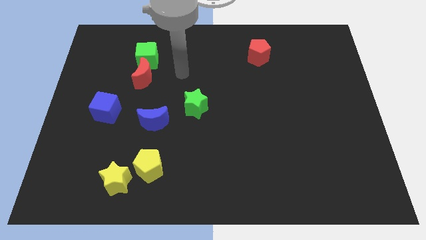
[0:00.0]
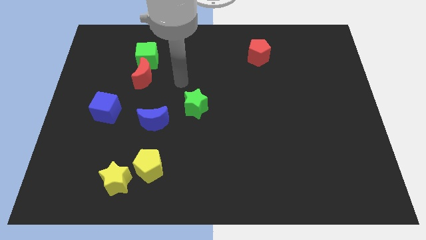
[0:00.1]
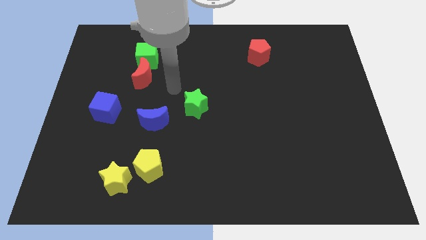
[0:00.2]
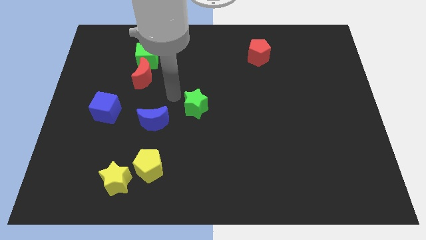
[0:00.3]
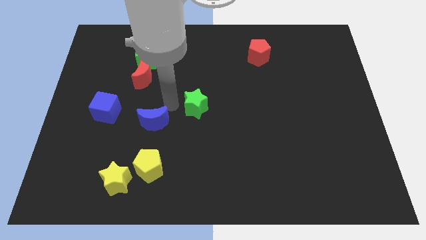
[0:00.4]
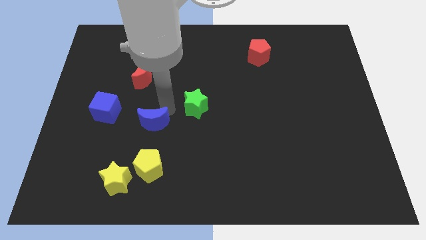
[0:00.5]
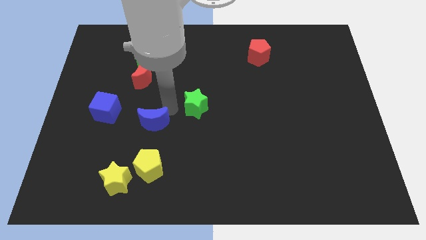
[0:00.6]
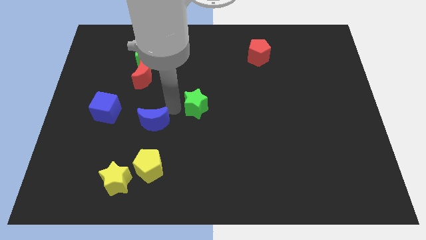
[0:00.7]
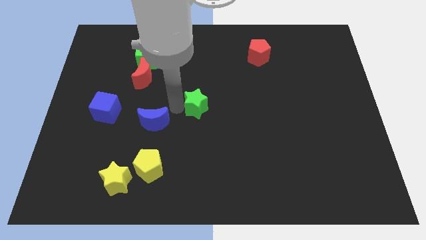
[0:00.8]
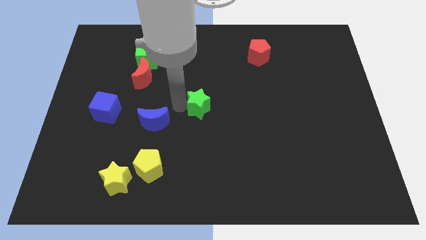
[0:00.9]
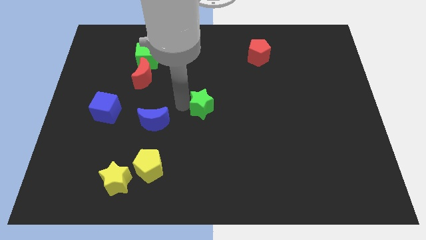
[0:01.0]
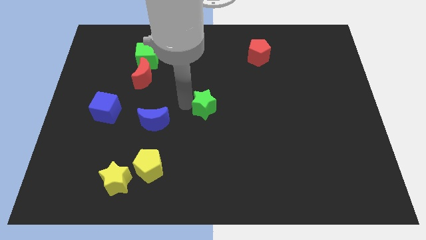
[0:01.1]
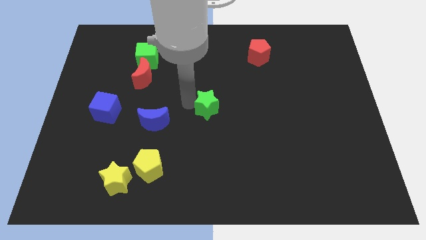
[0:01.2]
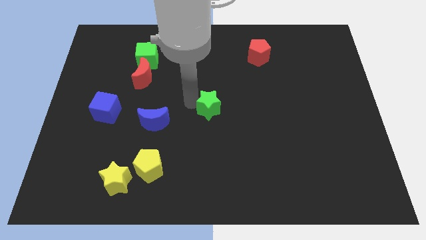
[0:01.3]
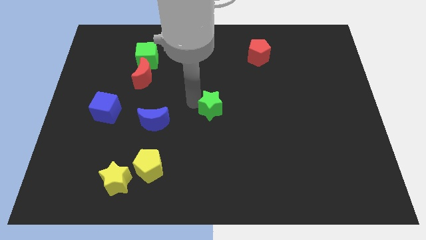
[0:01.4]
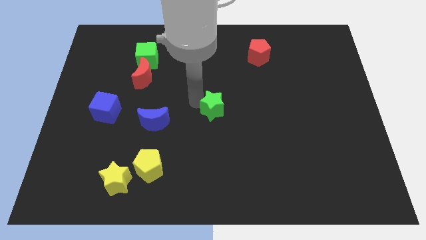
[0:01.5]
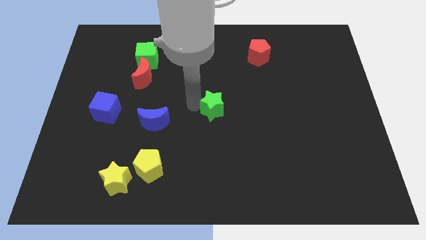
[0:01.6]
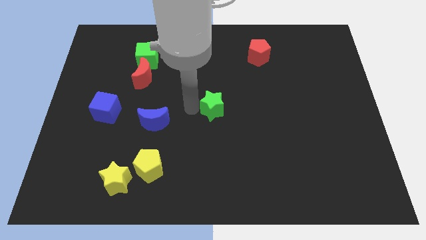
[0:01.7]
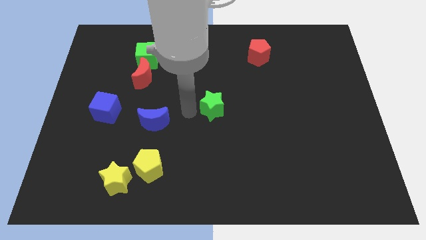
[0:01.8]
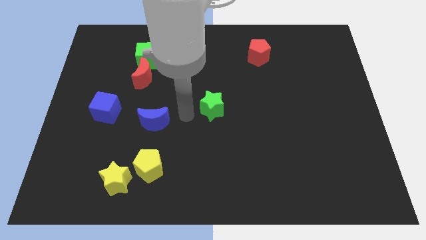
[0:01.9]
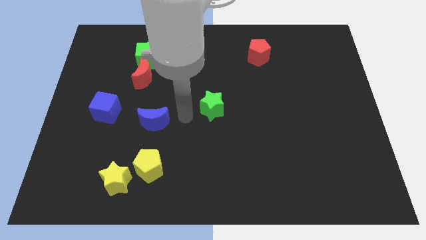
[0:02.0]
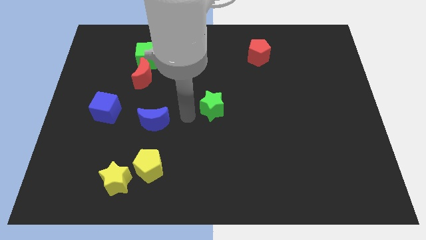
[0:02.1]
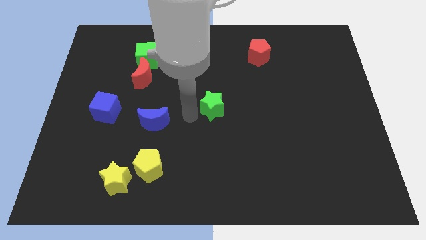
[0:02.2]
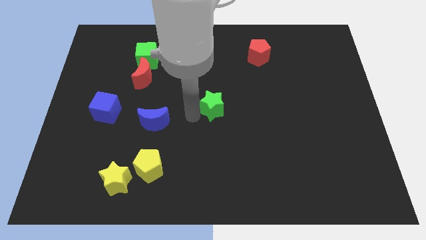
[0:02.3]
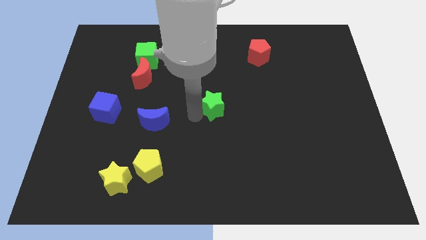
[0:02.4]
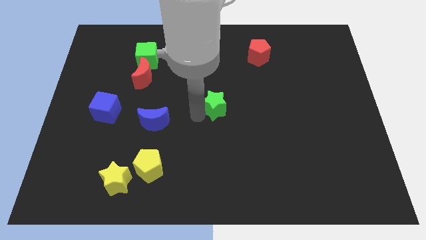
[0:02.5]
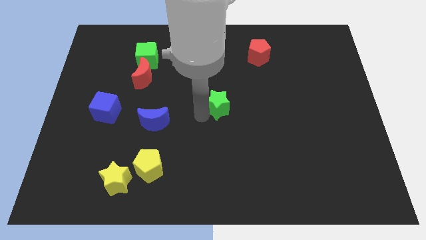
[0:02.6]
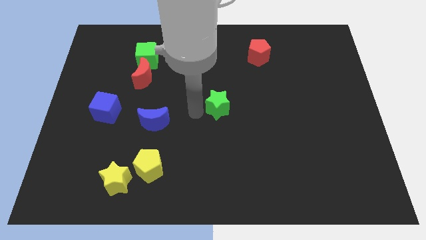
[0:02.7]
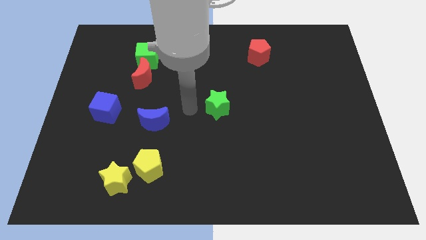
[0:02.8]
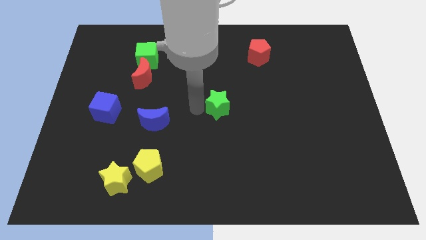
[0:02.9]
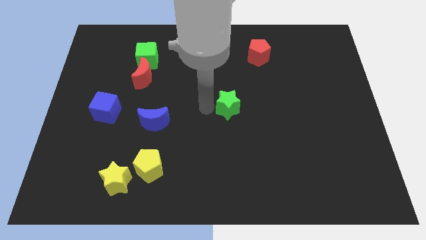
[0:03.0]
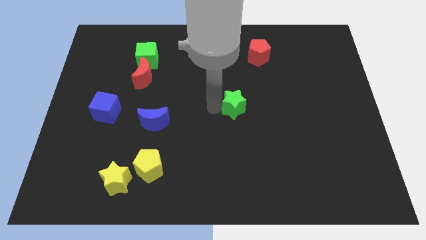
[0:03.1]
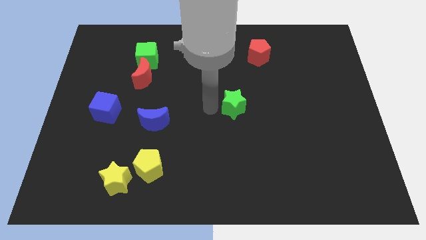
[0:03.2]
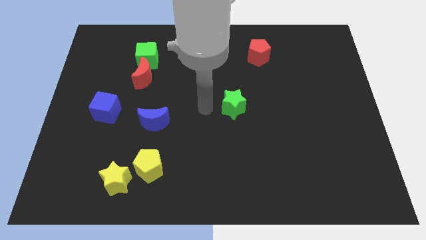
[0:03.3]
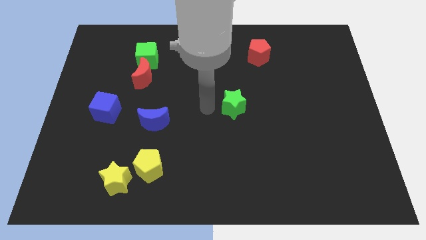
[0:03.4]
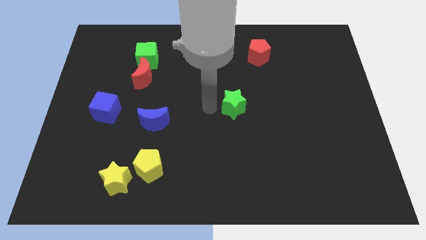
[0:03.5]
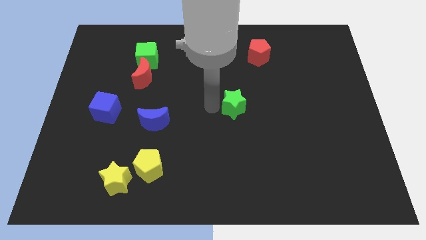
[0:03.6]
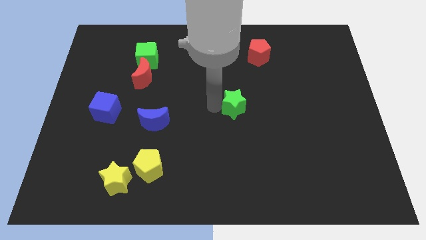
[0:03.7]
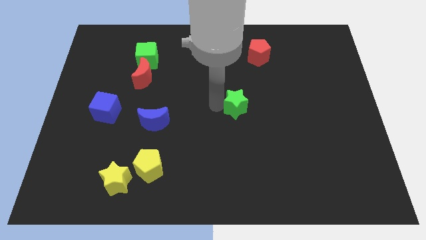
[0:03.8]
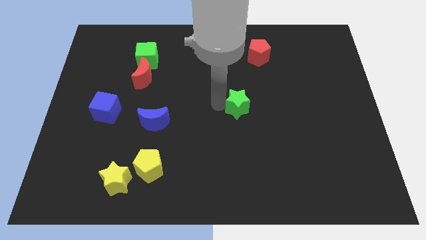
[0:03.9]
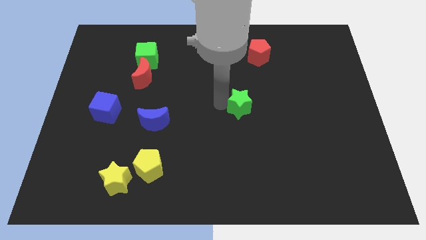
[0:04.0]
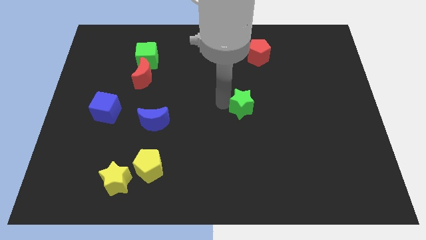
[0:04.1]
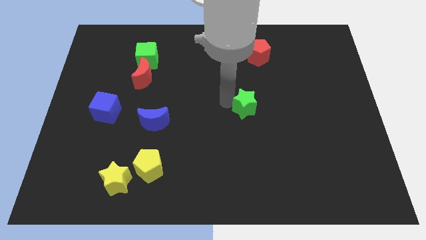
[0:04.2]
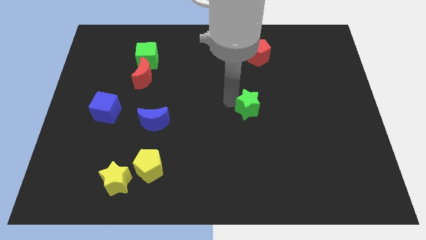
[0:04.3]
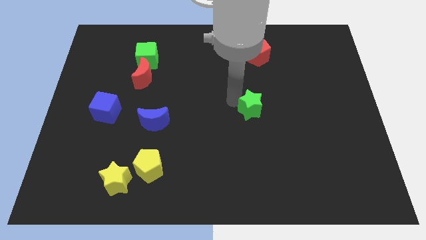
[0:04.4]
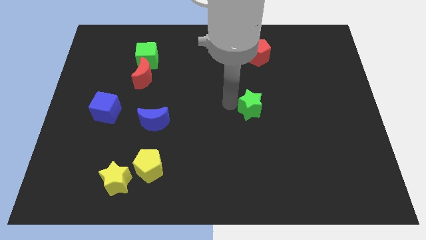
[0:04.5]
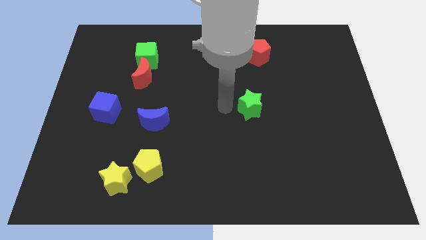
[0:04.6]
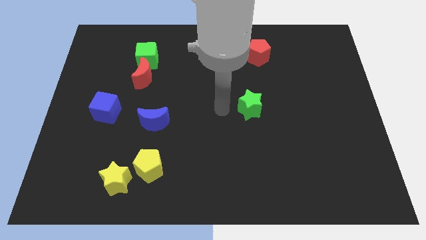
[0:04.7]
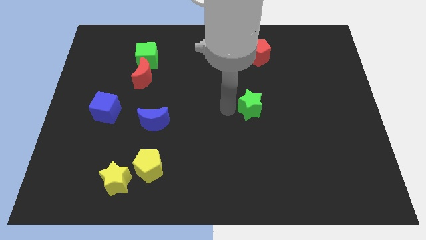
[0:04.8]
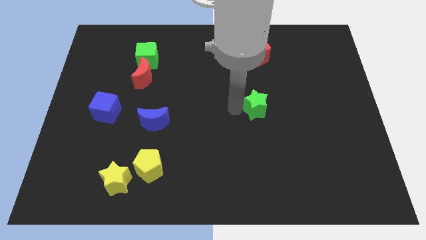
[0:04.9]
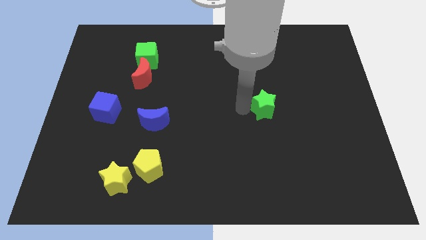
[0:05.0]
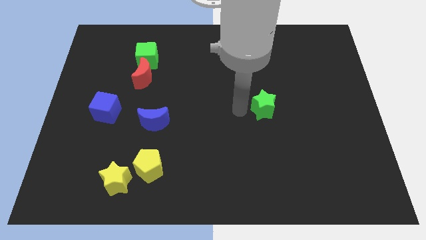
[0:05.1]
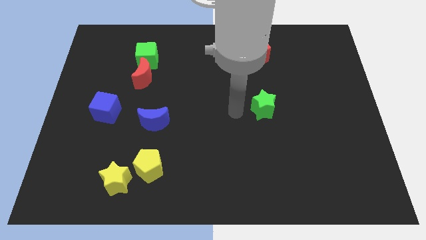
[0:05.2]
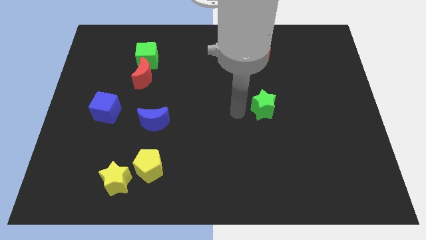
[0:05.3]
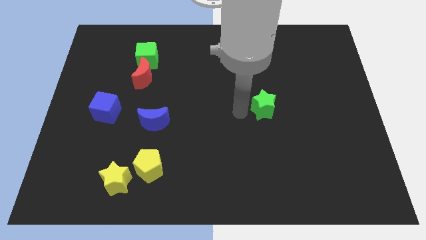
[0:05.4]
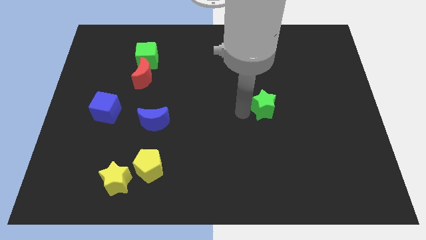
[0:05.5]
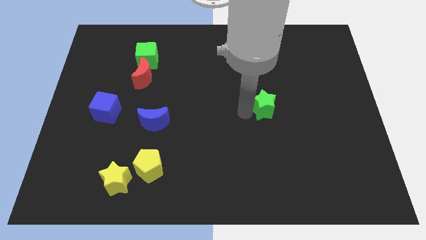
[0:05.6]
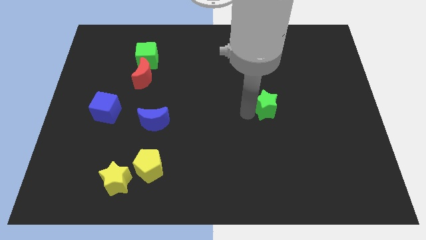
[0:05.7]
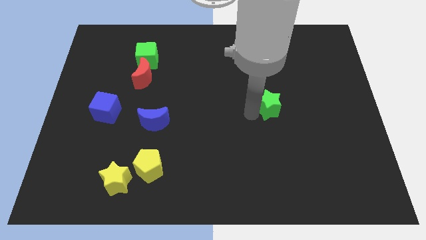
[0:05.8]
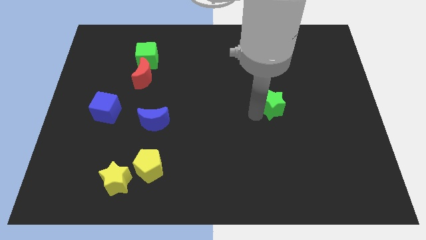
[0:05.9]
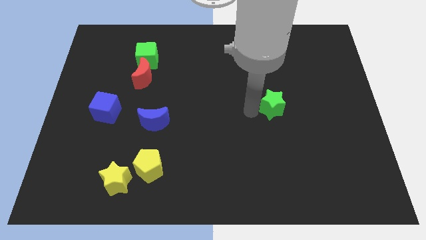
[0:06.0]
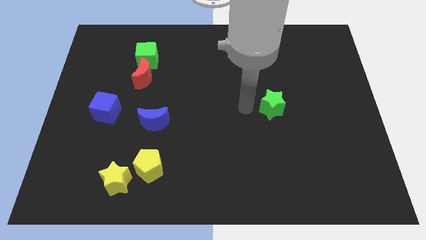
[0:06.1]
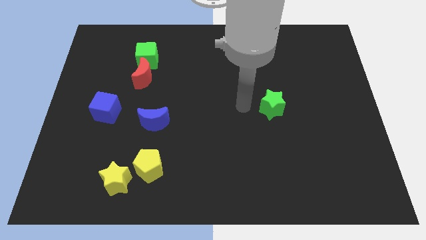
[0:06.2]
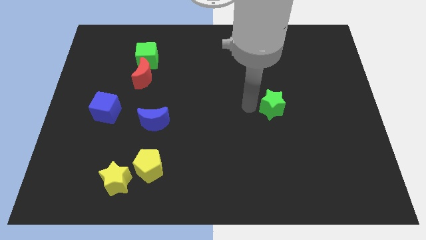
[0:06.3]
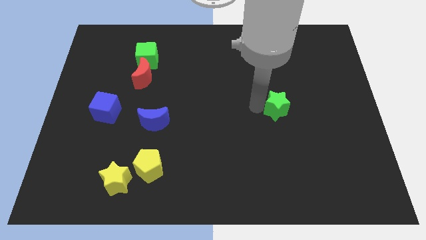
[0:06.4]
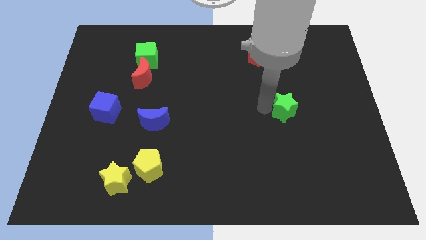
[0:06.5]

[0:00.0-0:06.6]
slide the green star right

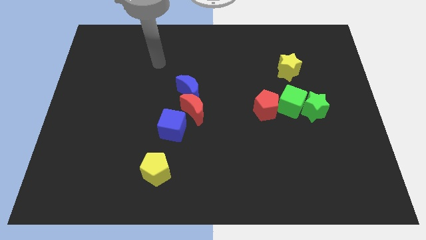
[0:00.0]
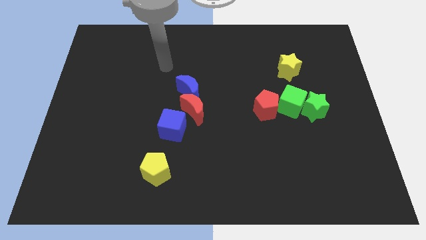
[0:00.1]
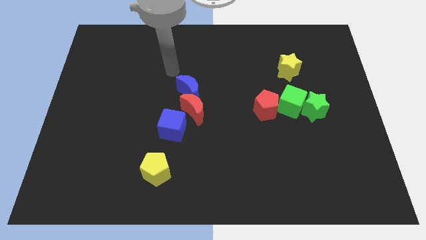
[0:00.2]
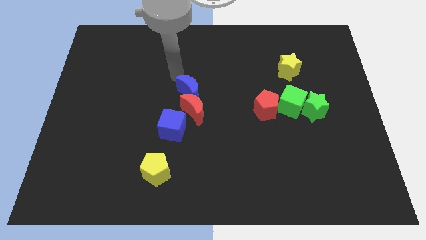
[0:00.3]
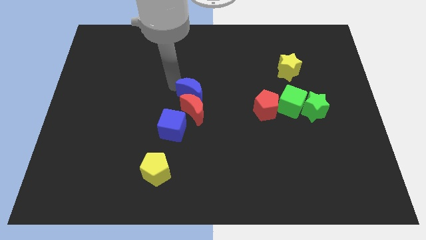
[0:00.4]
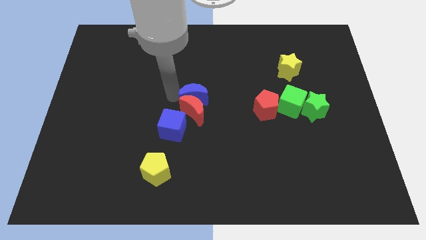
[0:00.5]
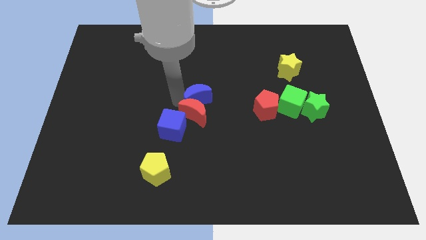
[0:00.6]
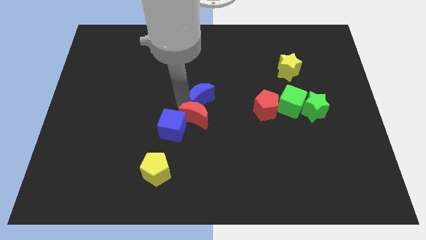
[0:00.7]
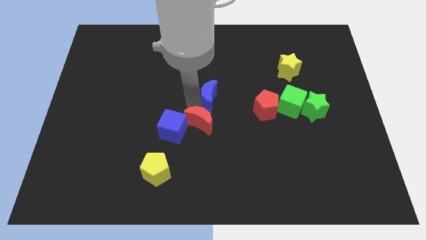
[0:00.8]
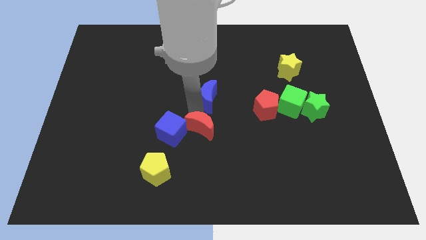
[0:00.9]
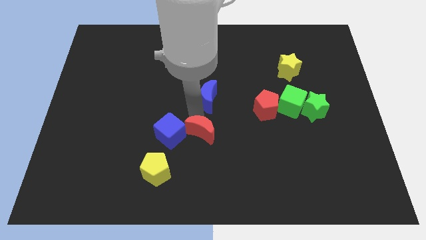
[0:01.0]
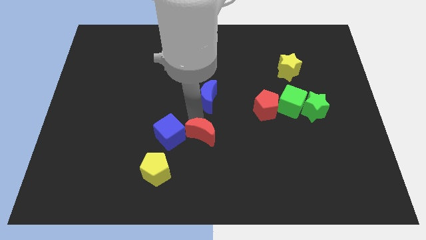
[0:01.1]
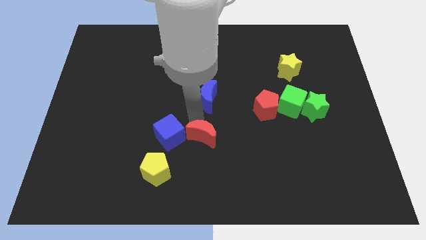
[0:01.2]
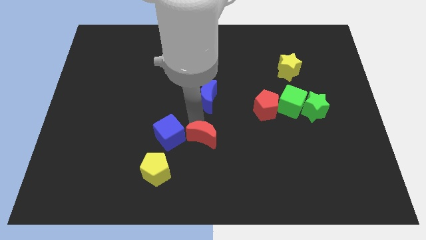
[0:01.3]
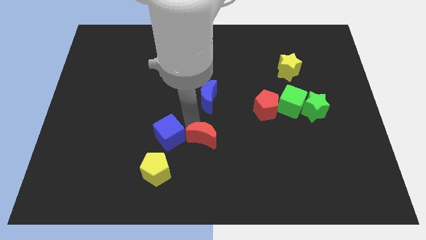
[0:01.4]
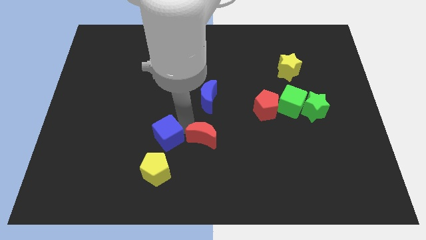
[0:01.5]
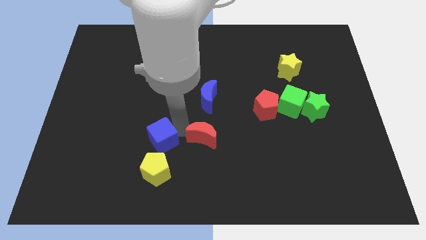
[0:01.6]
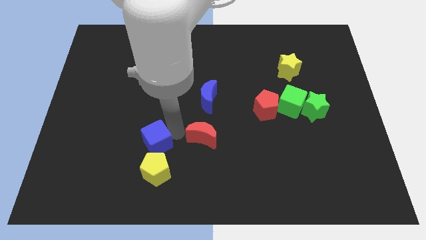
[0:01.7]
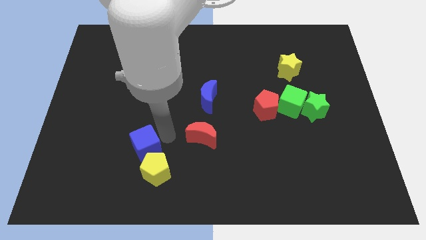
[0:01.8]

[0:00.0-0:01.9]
slightly move the blue cube diagonally down and left
